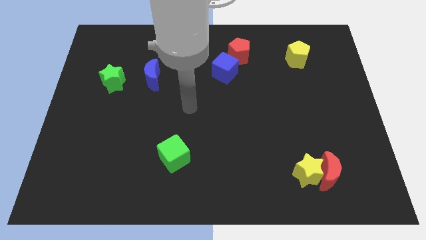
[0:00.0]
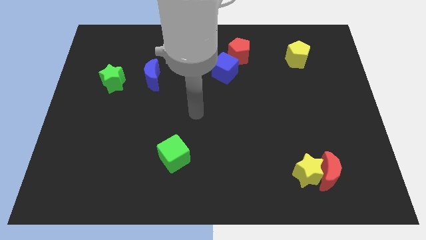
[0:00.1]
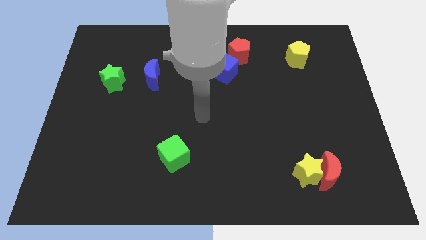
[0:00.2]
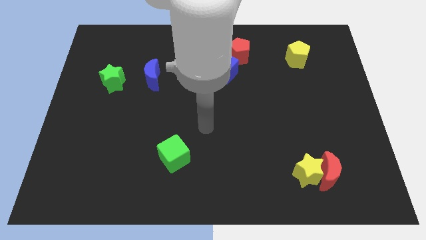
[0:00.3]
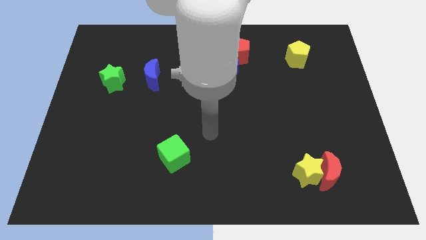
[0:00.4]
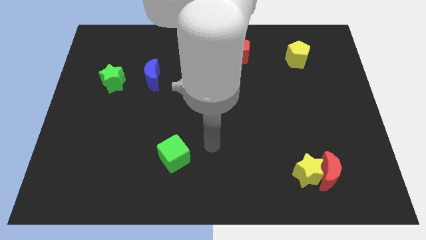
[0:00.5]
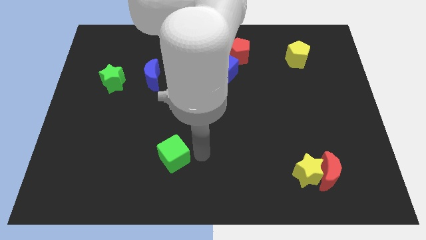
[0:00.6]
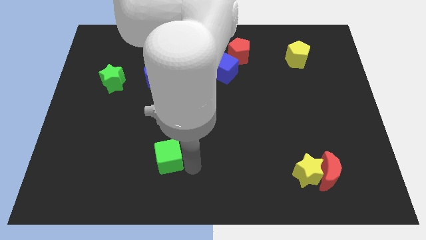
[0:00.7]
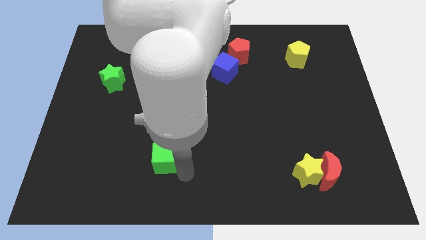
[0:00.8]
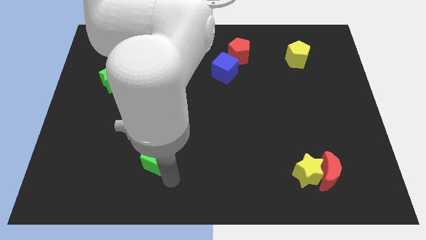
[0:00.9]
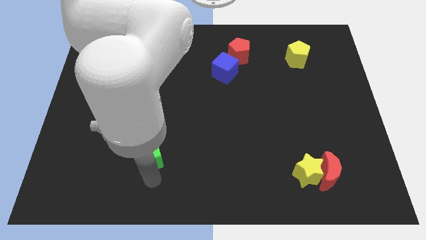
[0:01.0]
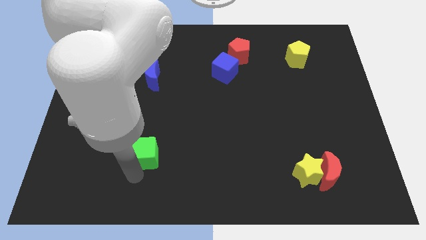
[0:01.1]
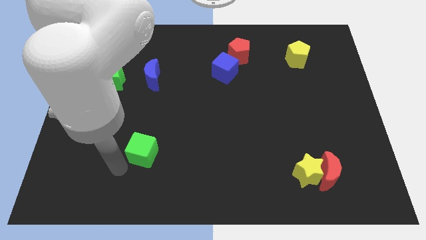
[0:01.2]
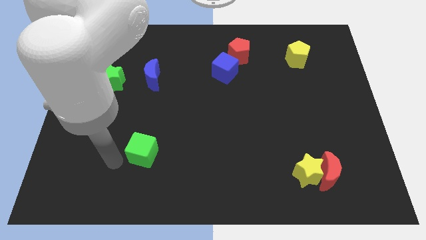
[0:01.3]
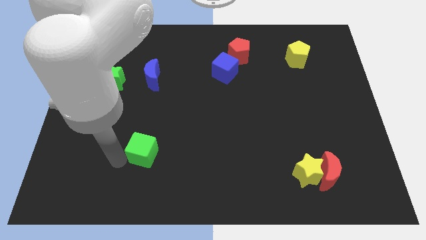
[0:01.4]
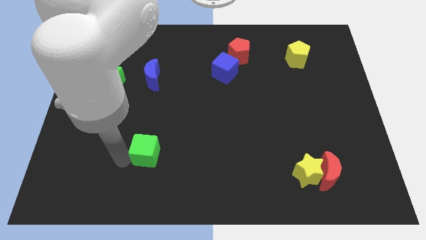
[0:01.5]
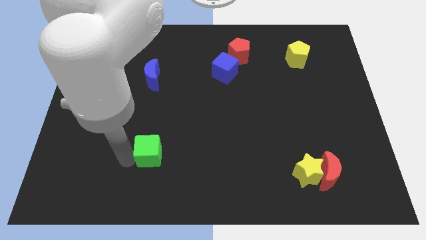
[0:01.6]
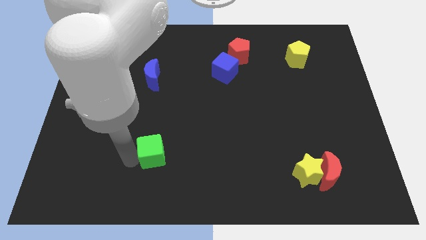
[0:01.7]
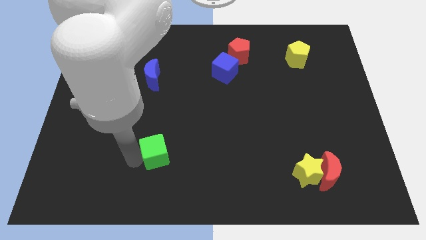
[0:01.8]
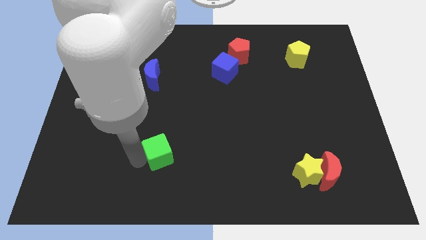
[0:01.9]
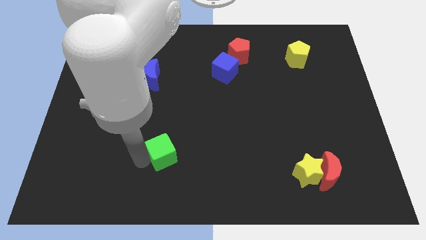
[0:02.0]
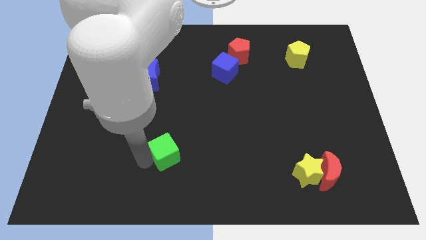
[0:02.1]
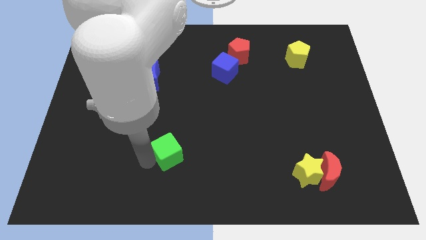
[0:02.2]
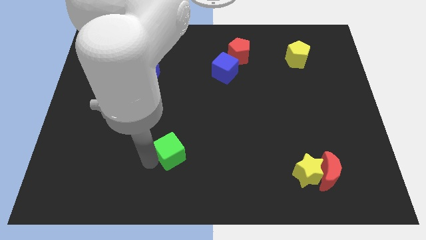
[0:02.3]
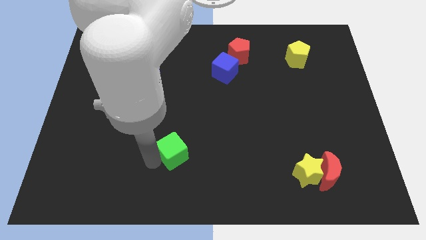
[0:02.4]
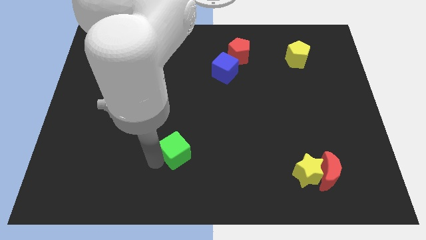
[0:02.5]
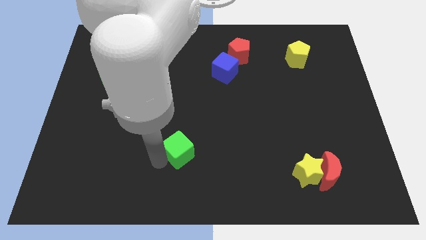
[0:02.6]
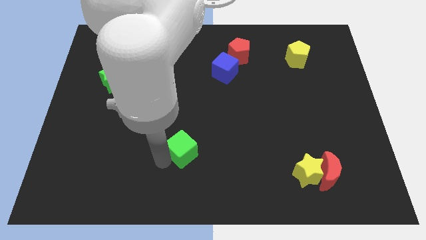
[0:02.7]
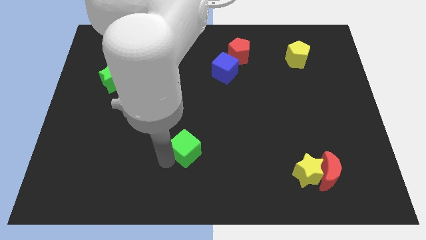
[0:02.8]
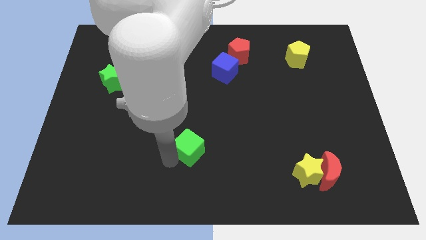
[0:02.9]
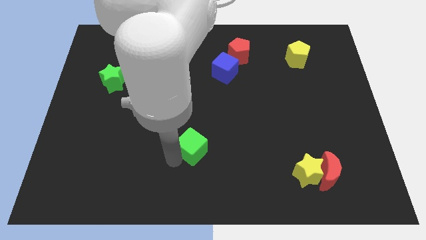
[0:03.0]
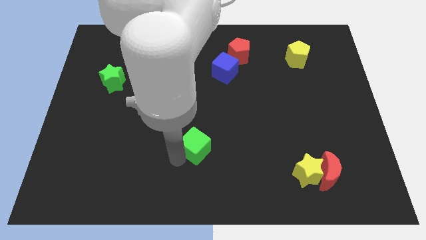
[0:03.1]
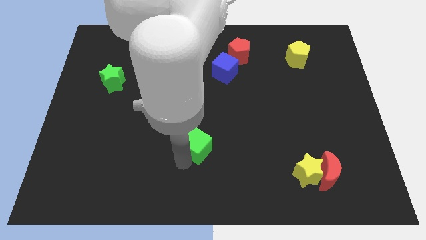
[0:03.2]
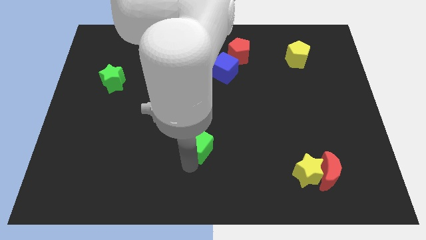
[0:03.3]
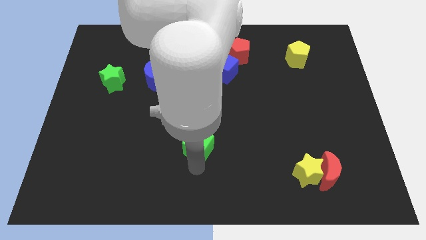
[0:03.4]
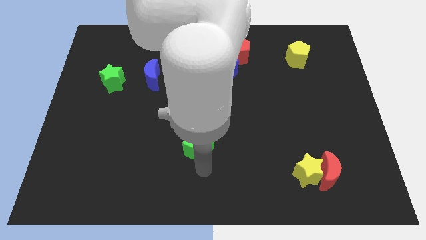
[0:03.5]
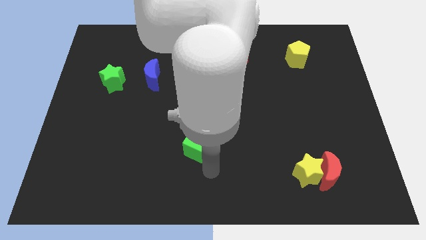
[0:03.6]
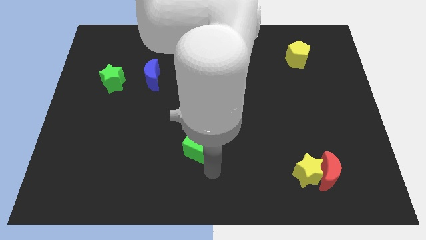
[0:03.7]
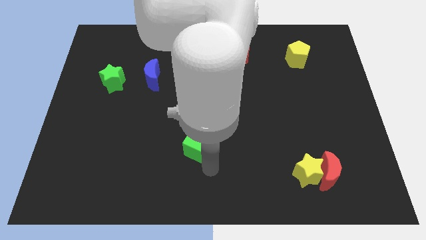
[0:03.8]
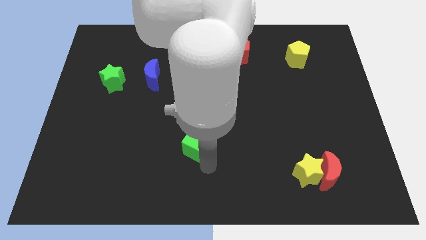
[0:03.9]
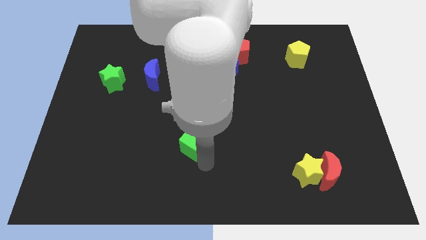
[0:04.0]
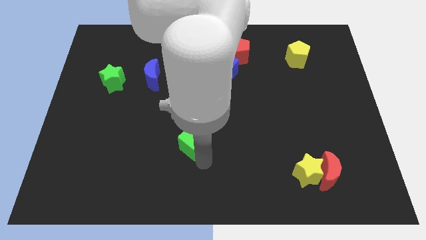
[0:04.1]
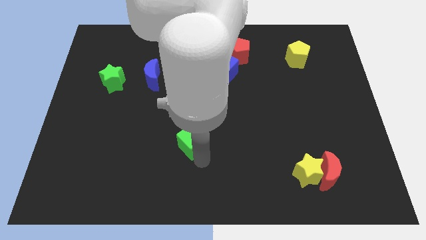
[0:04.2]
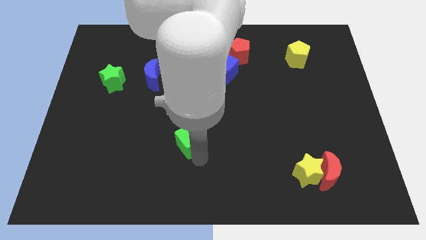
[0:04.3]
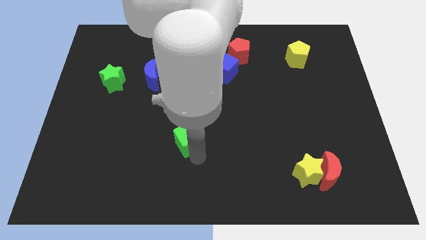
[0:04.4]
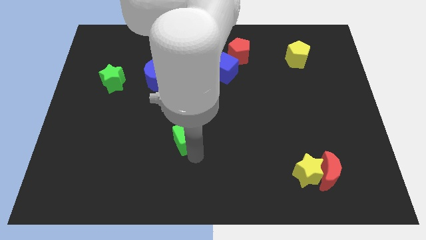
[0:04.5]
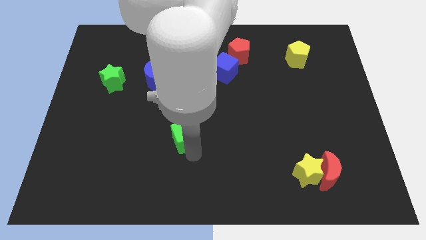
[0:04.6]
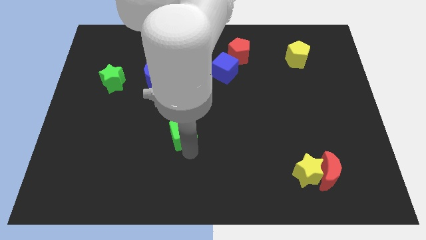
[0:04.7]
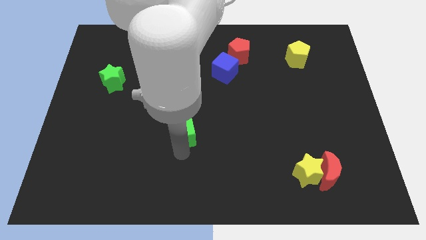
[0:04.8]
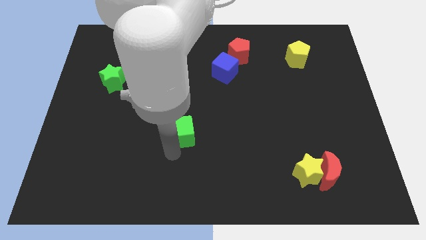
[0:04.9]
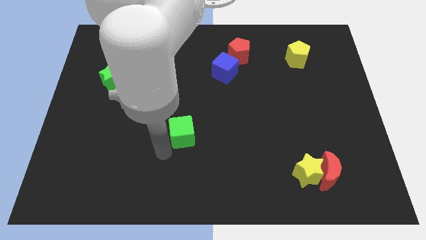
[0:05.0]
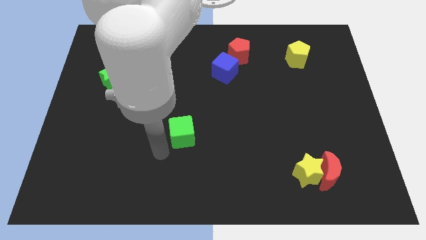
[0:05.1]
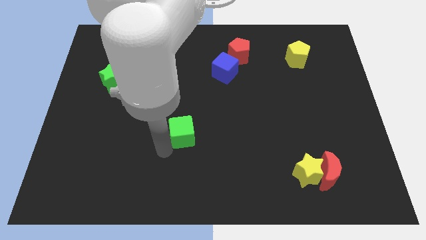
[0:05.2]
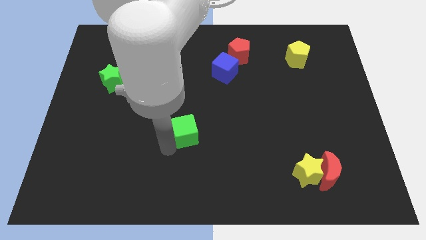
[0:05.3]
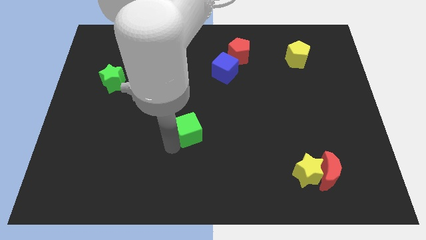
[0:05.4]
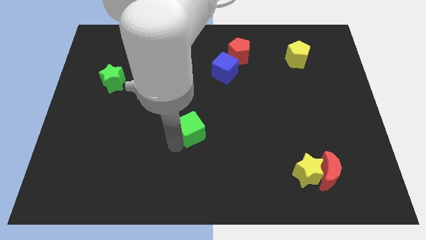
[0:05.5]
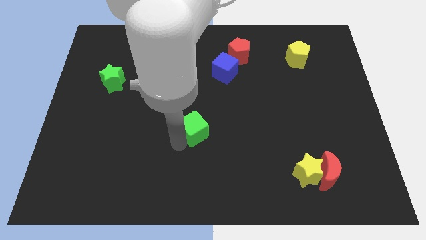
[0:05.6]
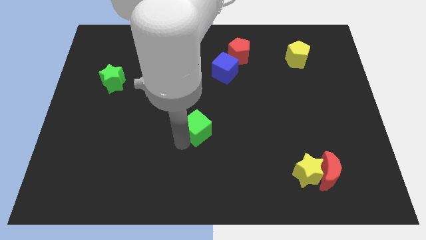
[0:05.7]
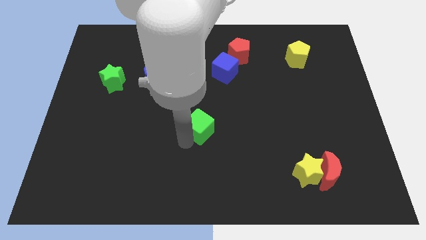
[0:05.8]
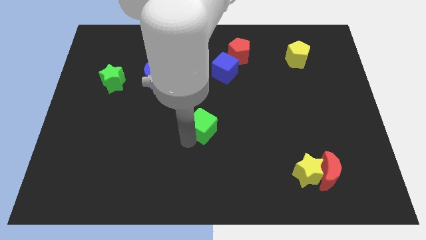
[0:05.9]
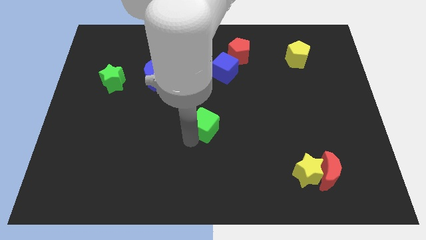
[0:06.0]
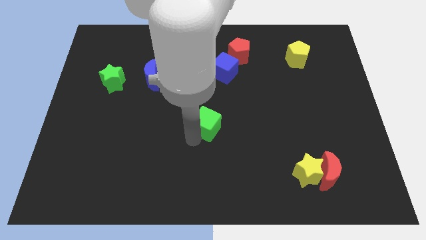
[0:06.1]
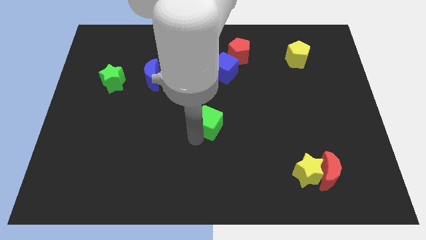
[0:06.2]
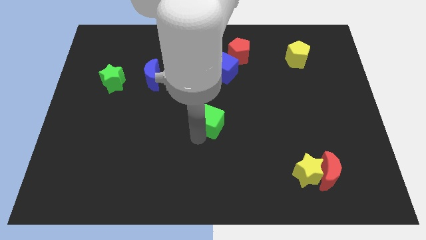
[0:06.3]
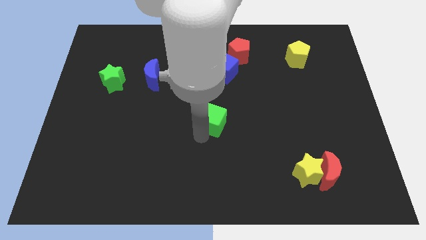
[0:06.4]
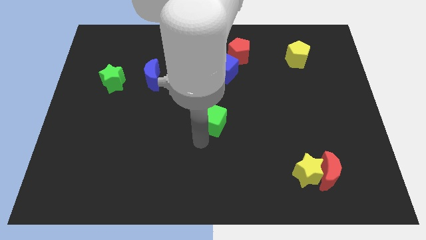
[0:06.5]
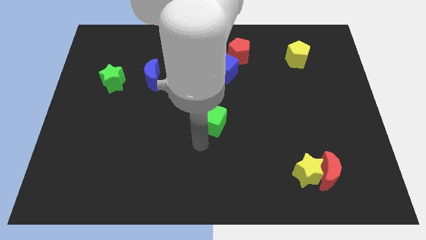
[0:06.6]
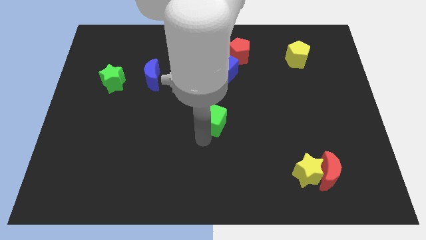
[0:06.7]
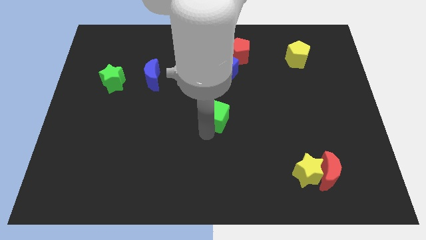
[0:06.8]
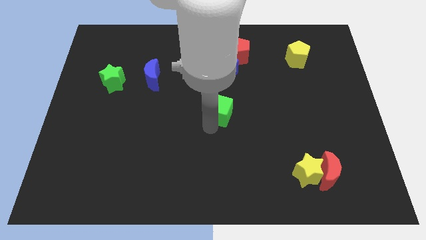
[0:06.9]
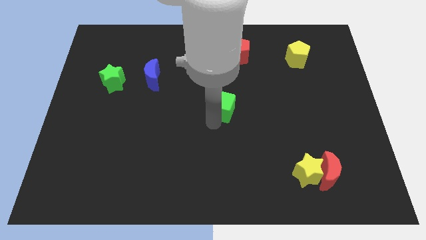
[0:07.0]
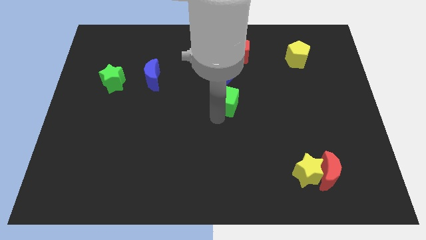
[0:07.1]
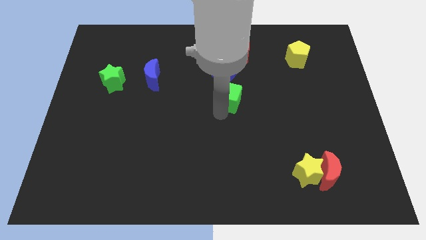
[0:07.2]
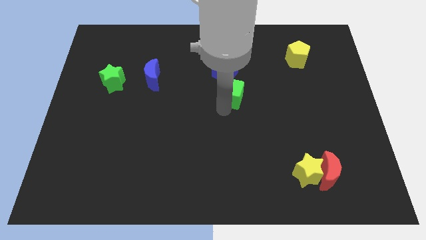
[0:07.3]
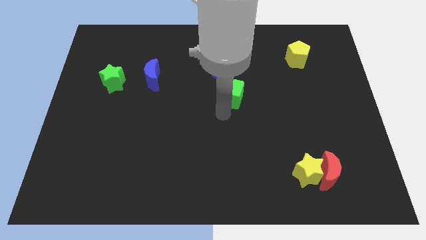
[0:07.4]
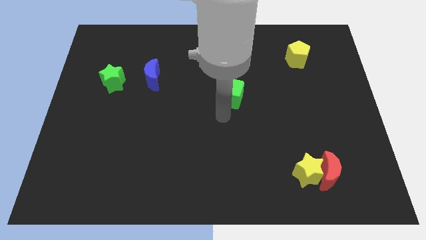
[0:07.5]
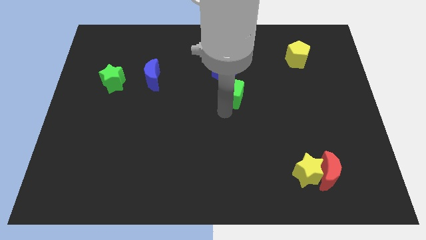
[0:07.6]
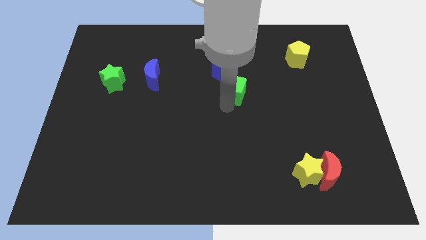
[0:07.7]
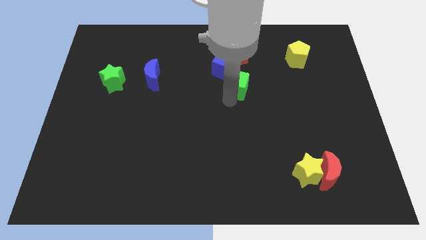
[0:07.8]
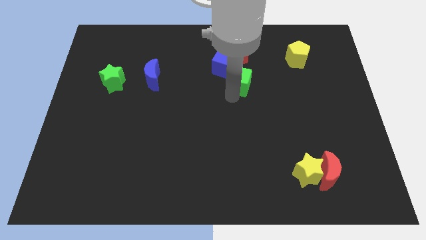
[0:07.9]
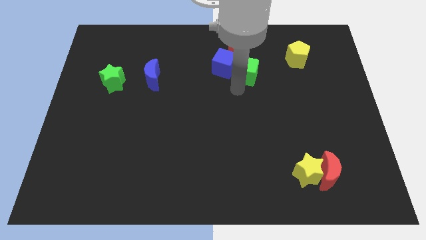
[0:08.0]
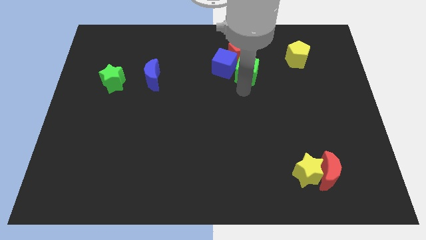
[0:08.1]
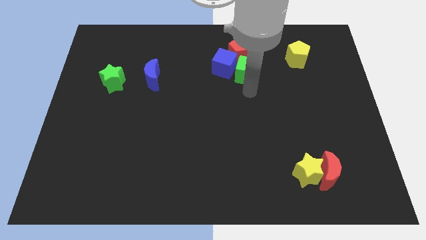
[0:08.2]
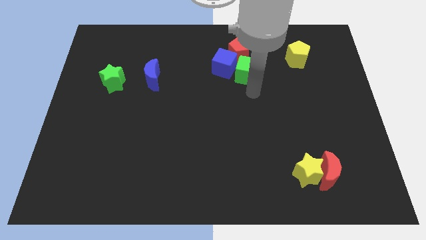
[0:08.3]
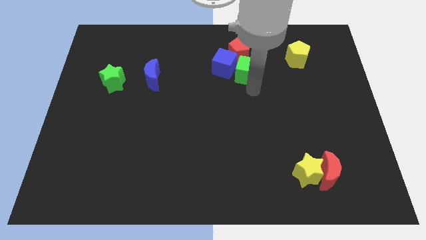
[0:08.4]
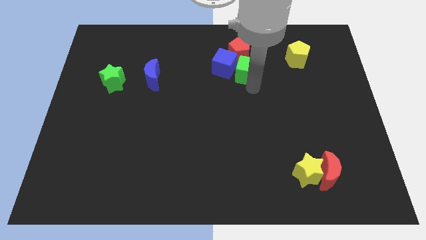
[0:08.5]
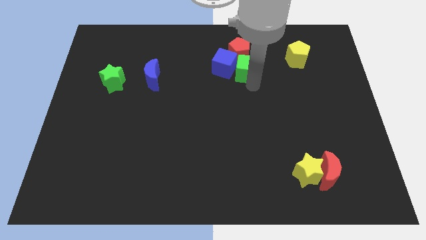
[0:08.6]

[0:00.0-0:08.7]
push the green cube towards the red pentagon
